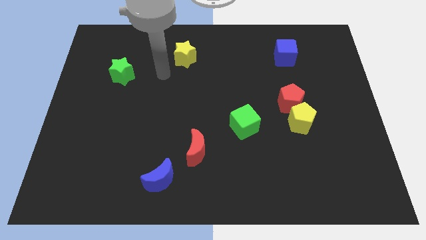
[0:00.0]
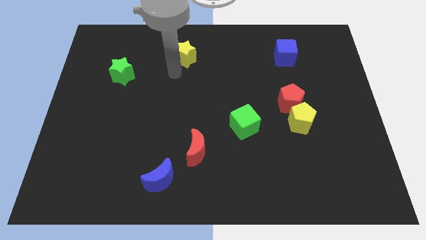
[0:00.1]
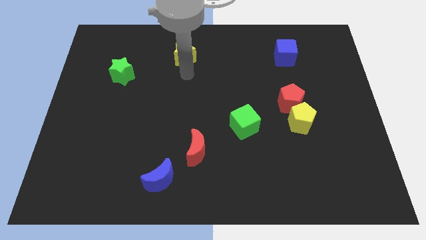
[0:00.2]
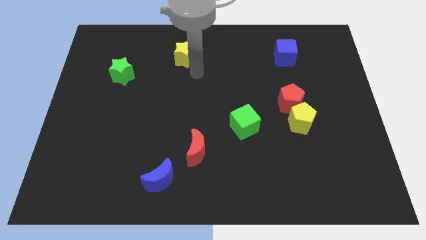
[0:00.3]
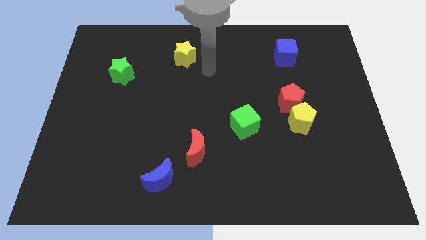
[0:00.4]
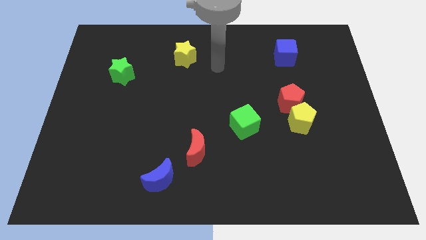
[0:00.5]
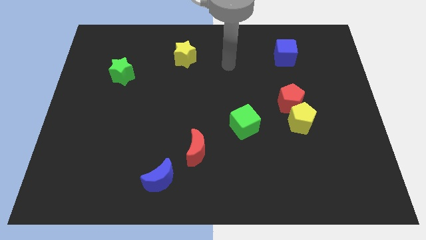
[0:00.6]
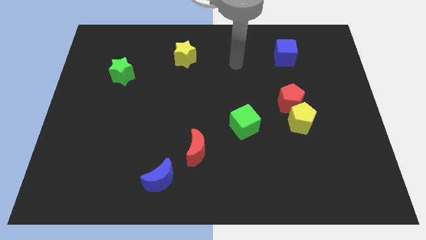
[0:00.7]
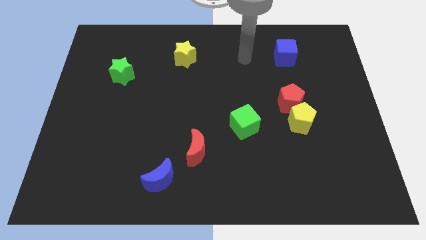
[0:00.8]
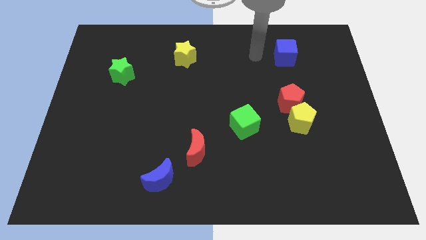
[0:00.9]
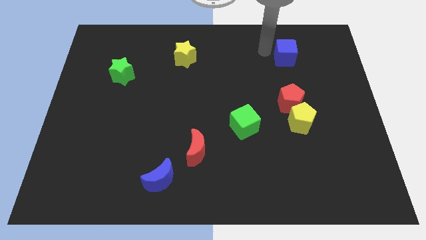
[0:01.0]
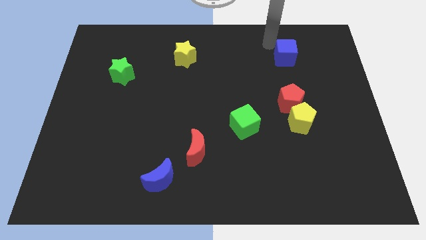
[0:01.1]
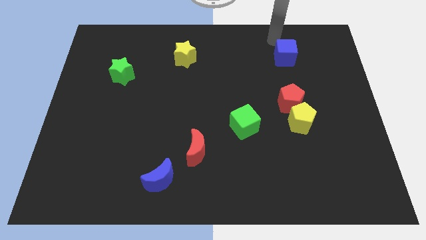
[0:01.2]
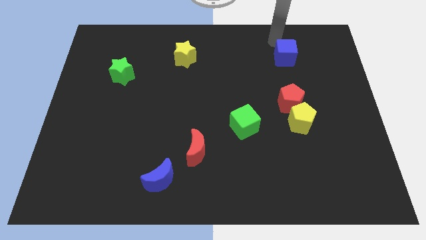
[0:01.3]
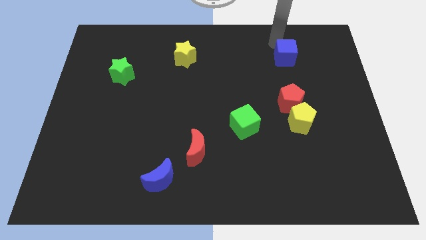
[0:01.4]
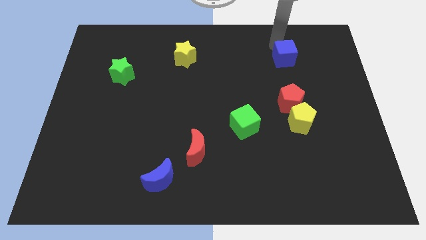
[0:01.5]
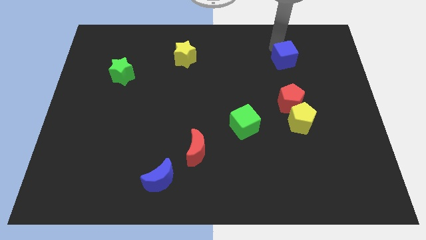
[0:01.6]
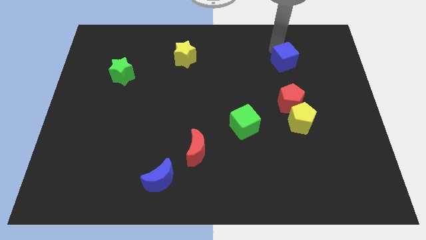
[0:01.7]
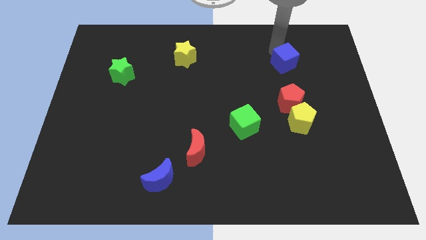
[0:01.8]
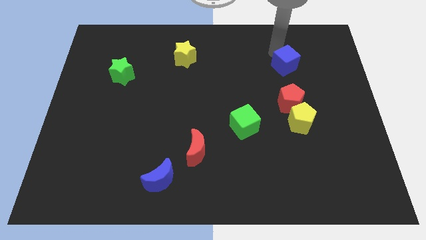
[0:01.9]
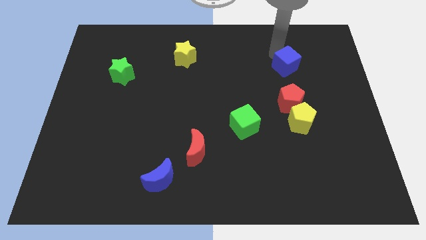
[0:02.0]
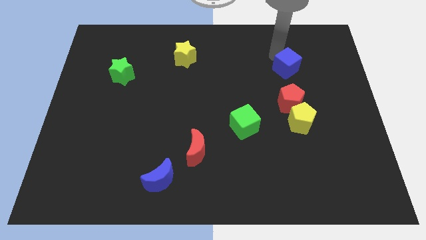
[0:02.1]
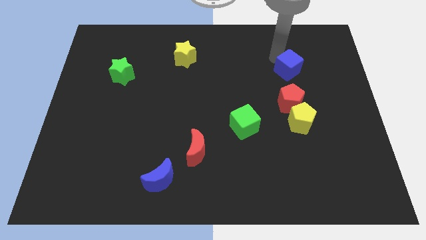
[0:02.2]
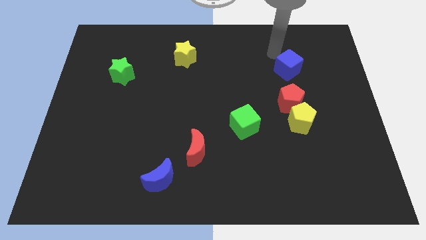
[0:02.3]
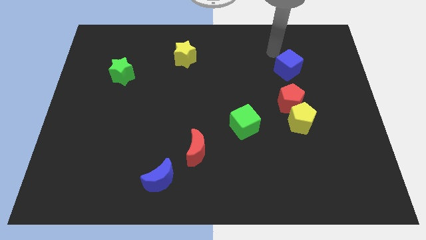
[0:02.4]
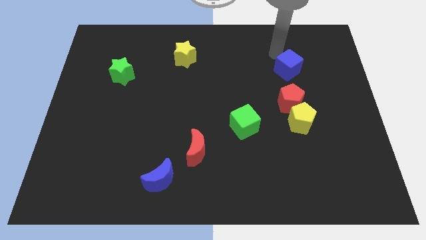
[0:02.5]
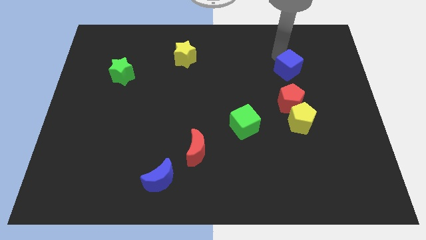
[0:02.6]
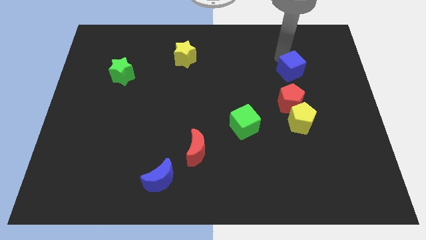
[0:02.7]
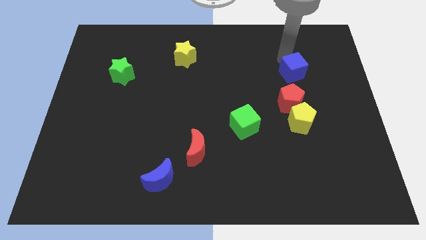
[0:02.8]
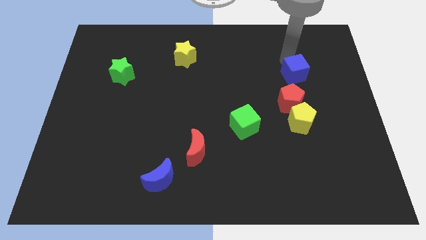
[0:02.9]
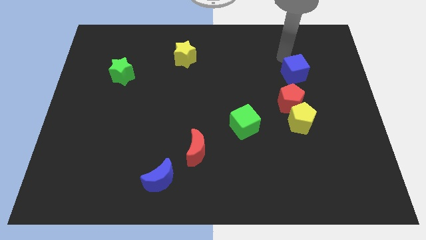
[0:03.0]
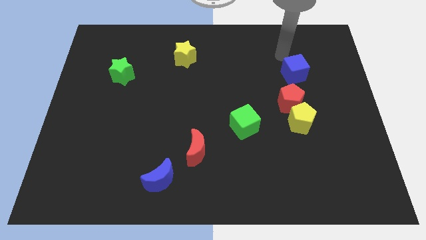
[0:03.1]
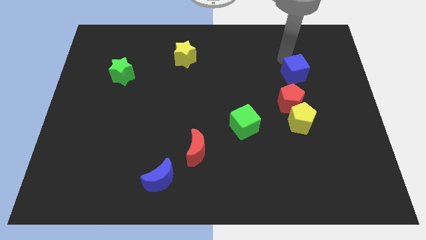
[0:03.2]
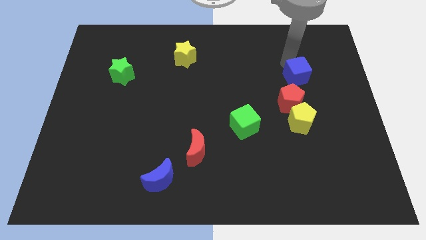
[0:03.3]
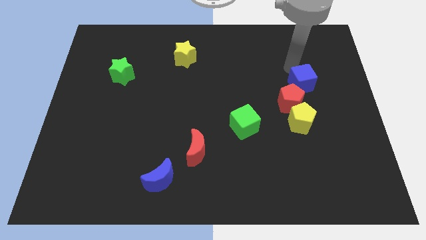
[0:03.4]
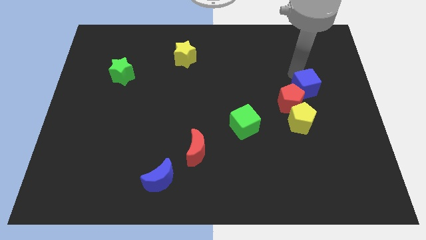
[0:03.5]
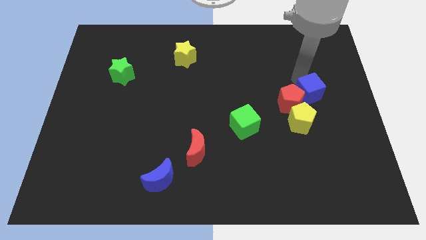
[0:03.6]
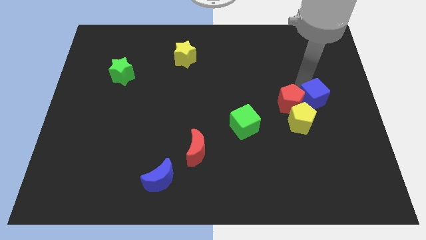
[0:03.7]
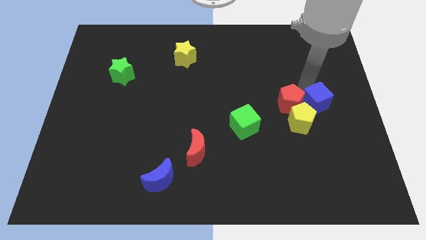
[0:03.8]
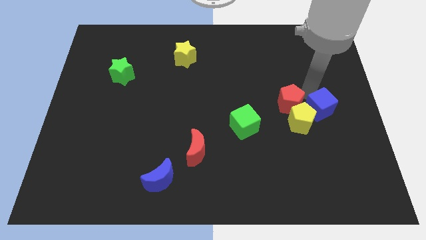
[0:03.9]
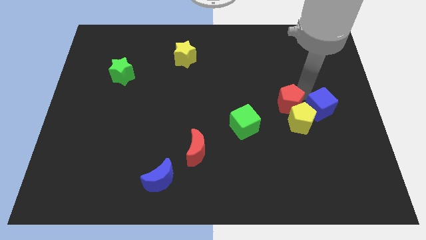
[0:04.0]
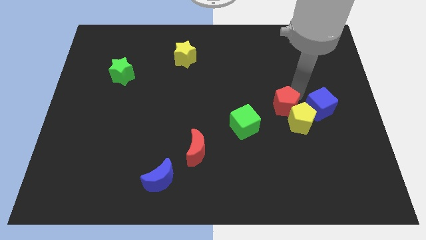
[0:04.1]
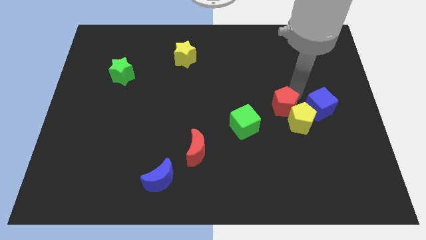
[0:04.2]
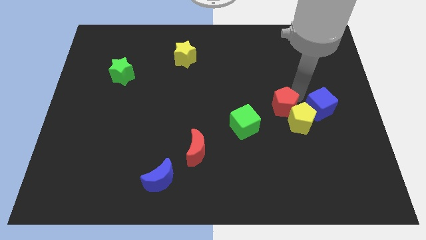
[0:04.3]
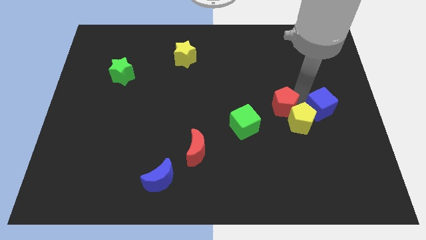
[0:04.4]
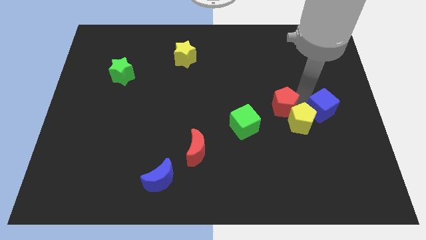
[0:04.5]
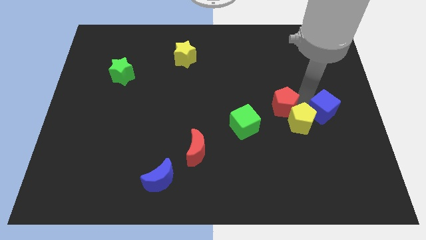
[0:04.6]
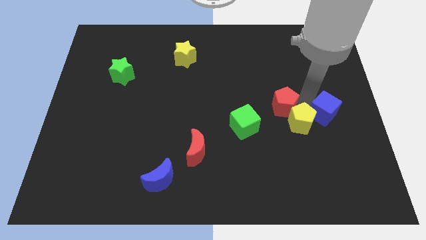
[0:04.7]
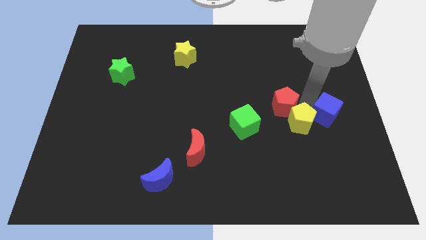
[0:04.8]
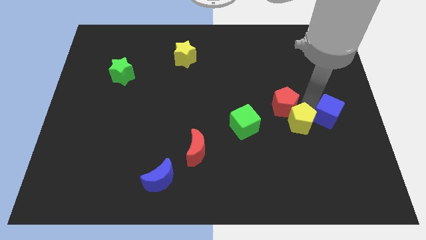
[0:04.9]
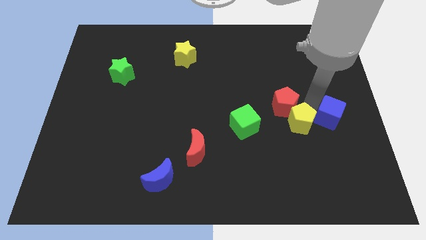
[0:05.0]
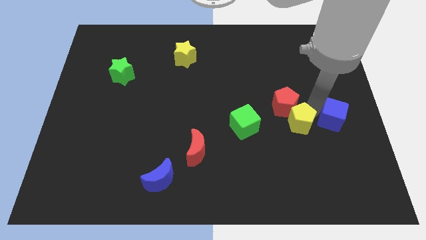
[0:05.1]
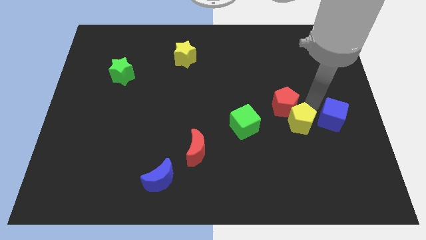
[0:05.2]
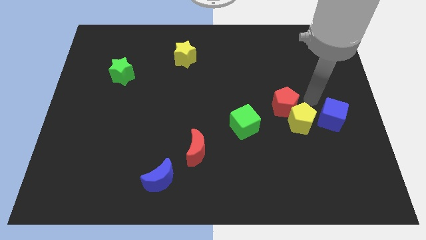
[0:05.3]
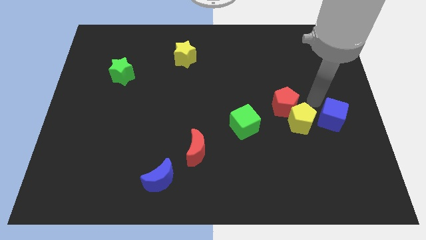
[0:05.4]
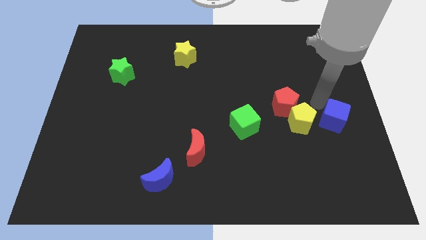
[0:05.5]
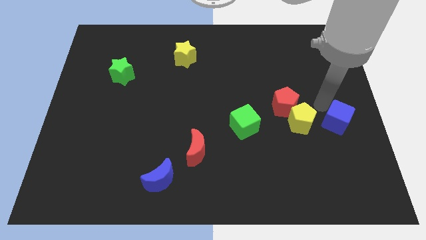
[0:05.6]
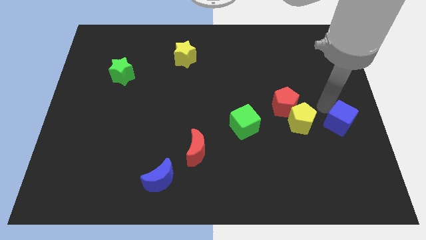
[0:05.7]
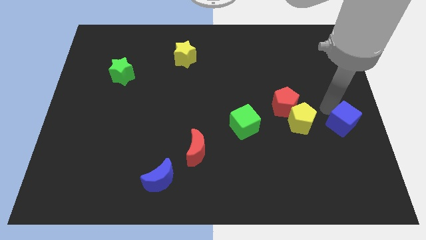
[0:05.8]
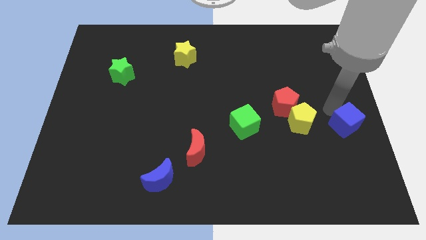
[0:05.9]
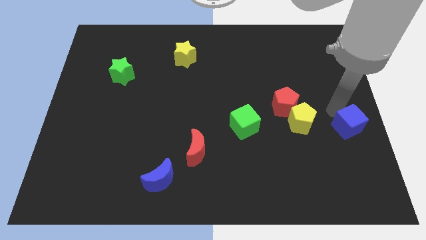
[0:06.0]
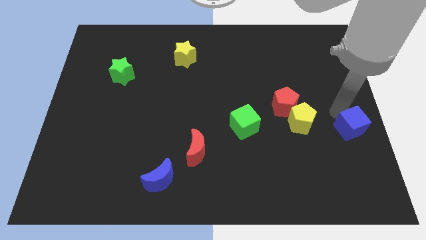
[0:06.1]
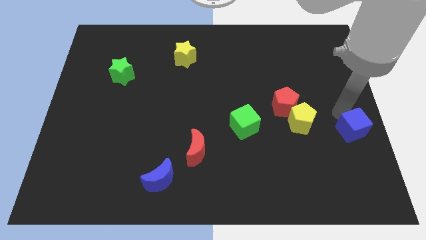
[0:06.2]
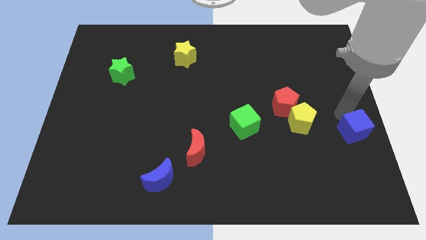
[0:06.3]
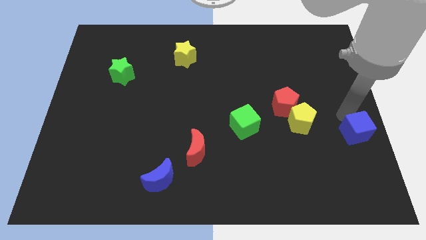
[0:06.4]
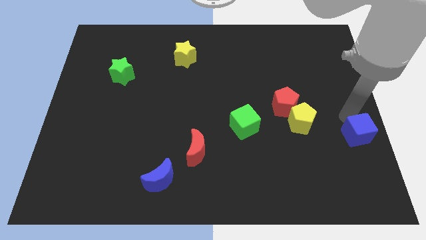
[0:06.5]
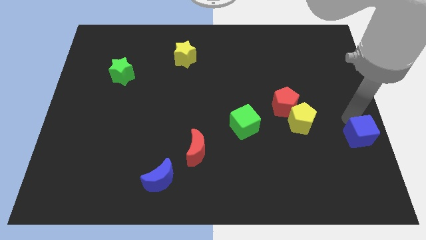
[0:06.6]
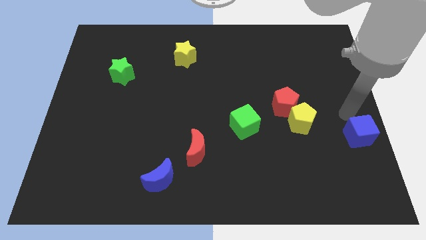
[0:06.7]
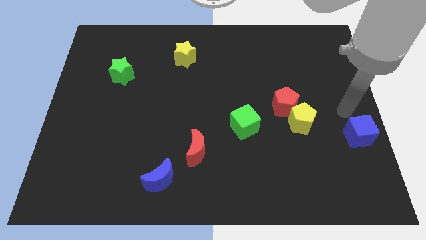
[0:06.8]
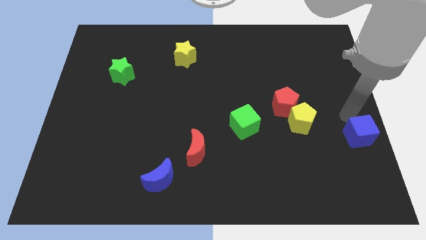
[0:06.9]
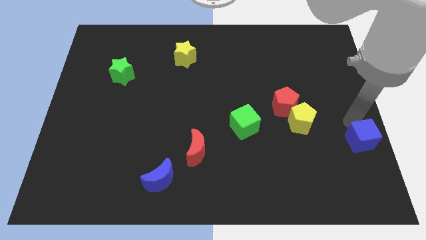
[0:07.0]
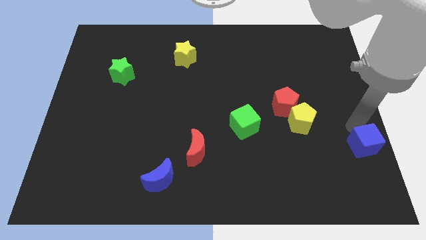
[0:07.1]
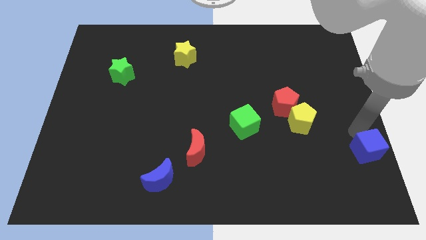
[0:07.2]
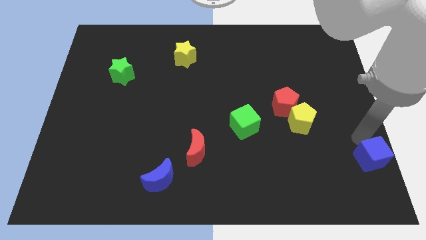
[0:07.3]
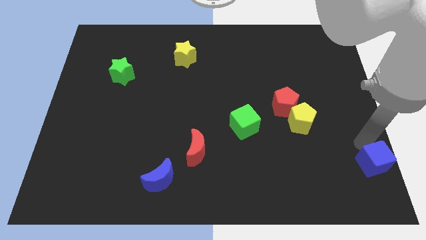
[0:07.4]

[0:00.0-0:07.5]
put the blue cube to the bottom right
